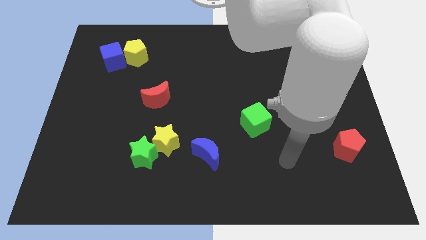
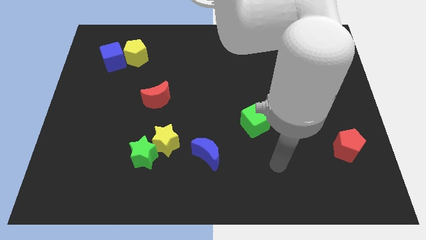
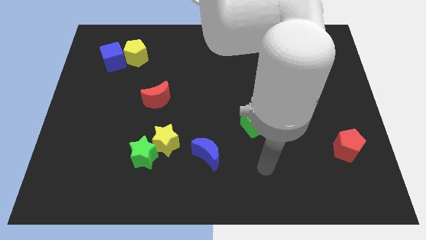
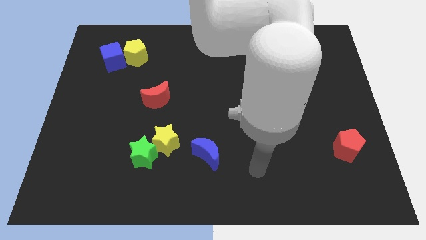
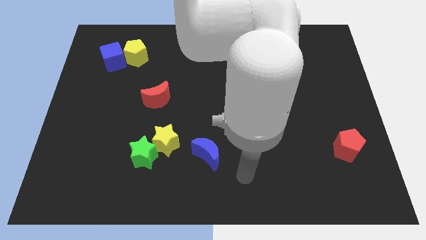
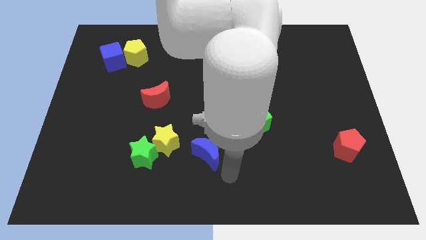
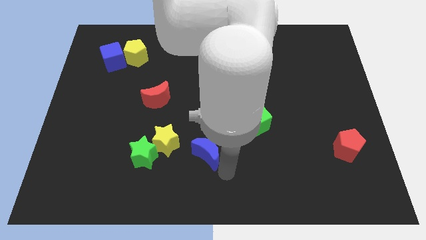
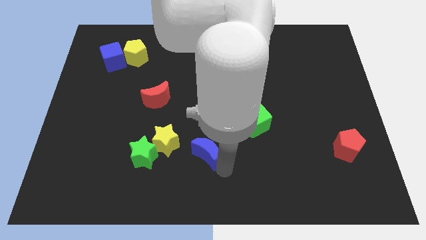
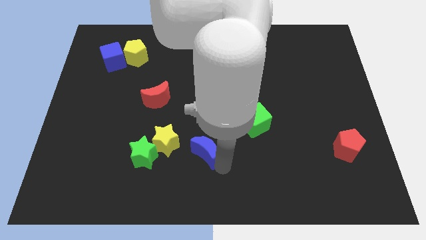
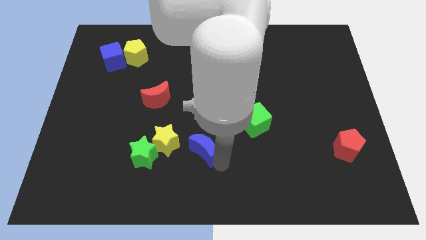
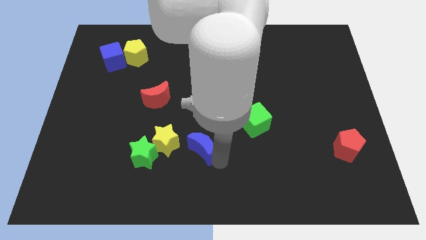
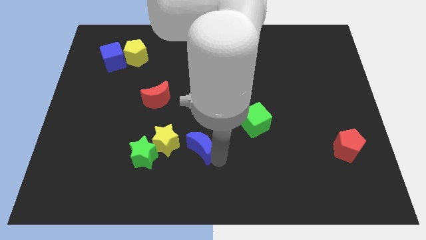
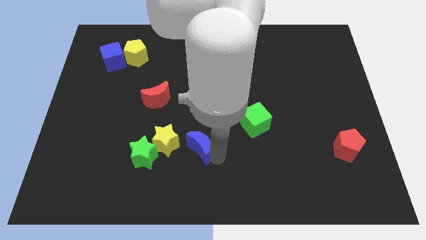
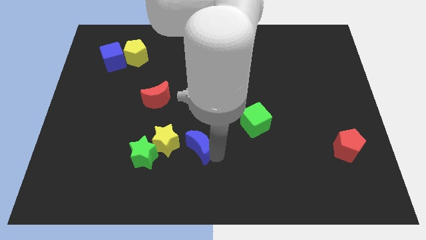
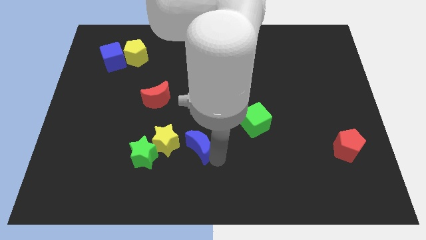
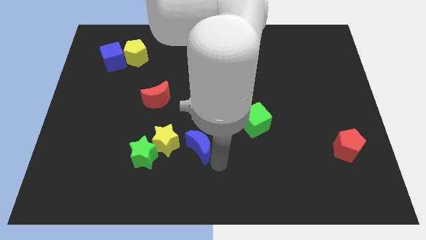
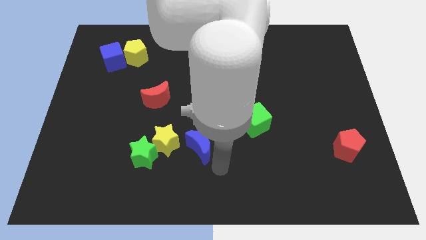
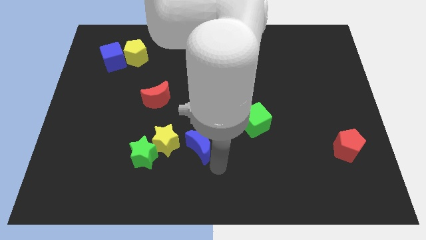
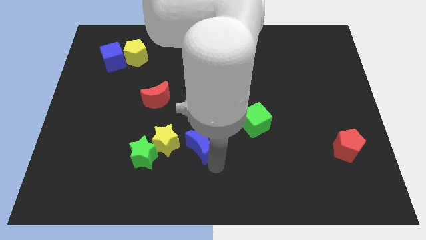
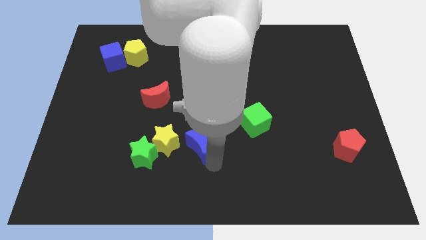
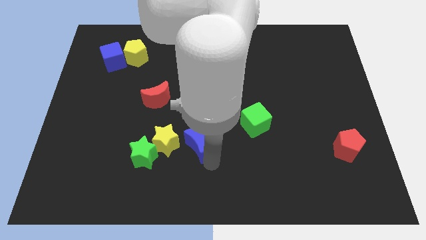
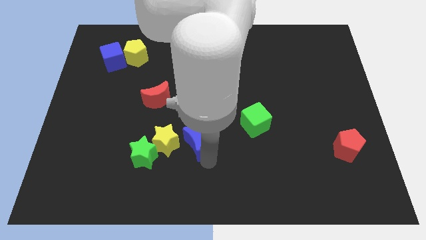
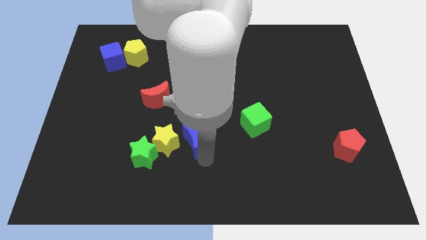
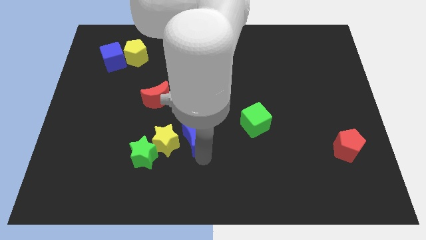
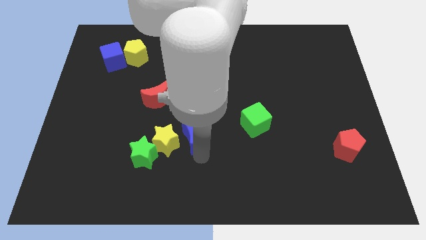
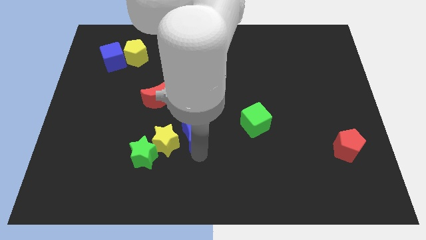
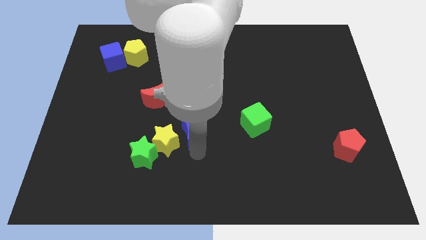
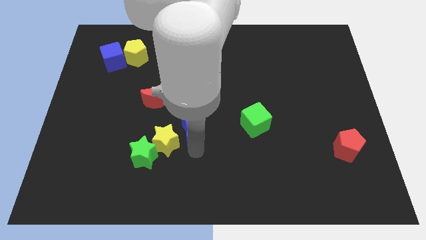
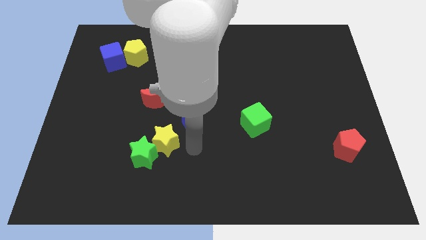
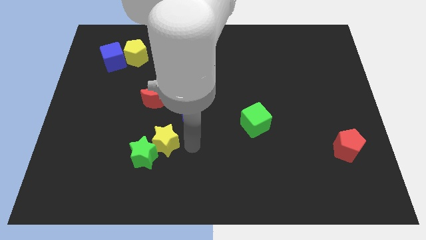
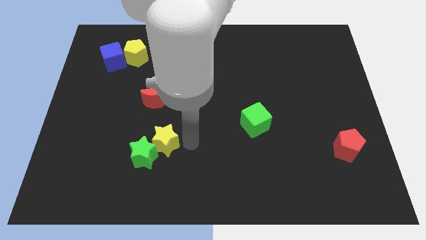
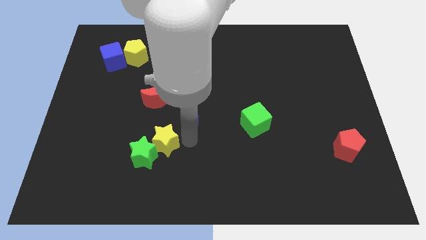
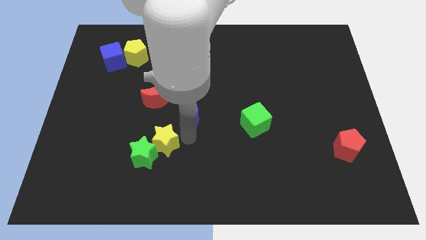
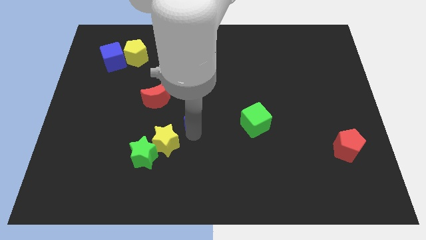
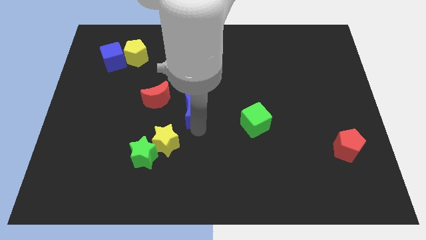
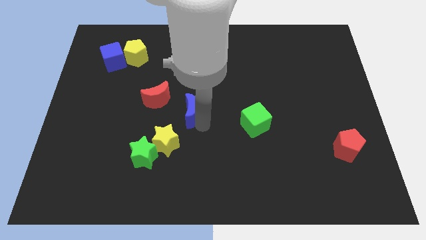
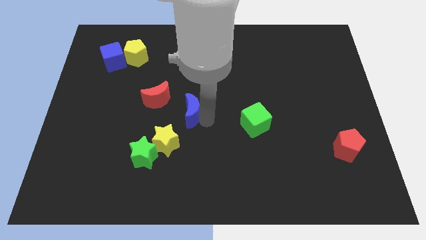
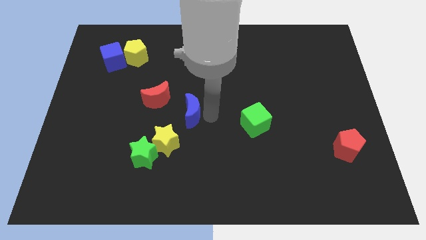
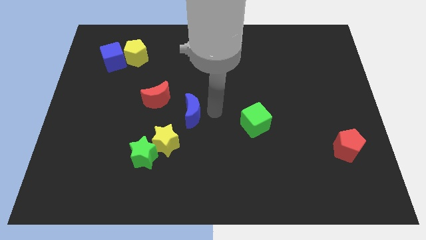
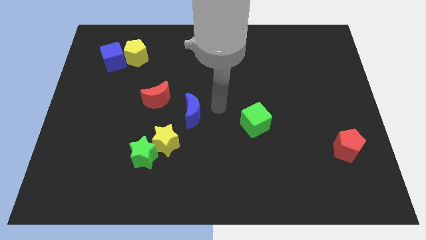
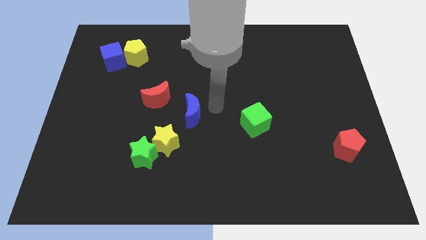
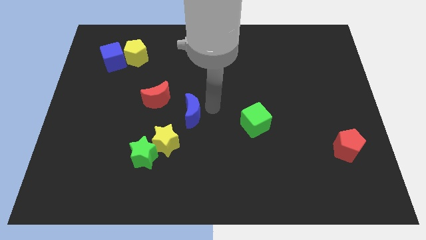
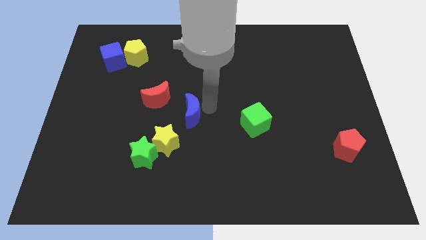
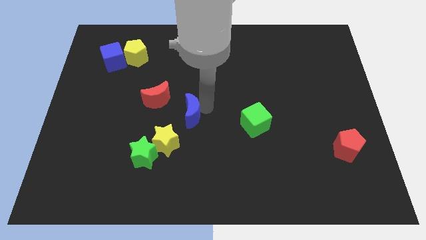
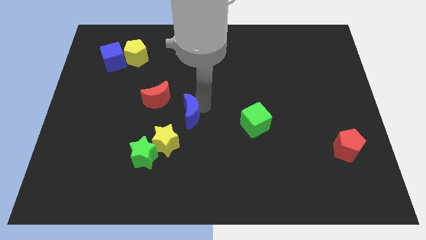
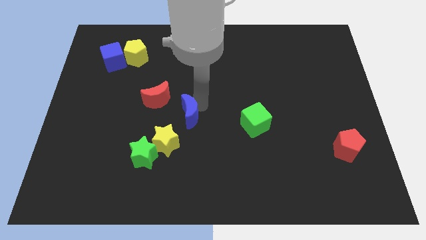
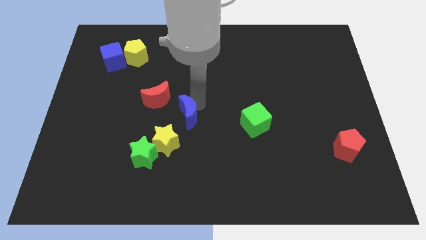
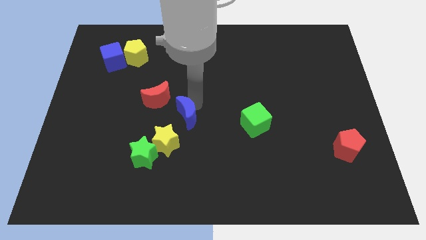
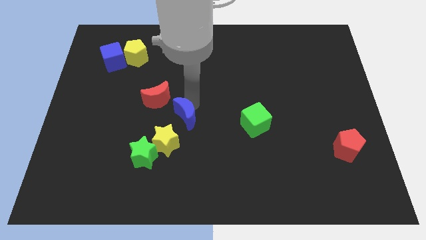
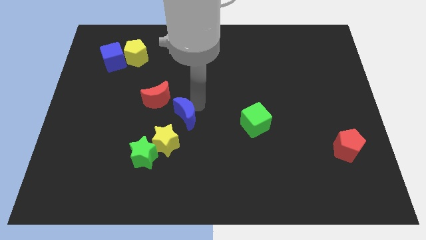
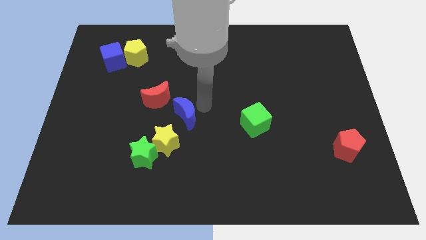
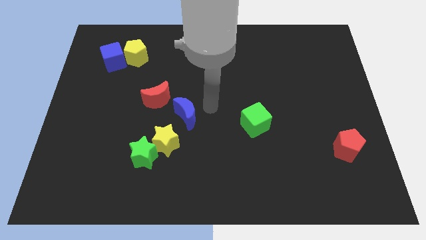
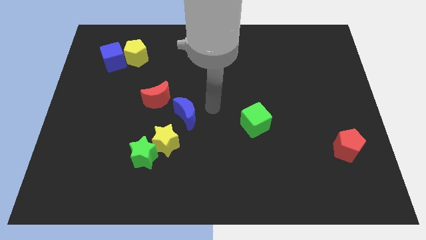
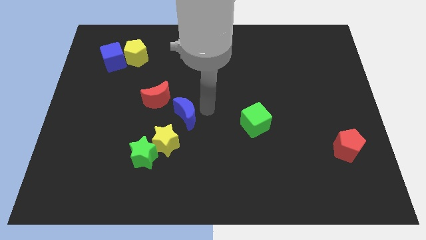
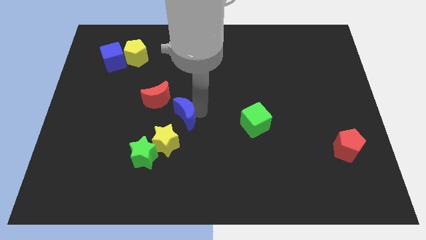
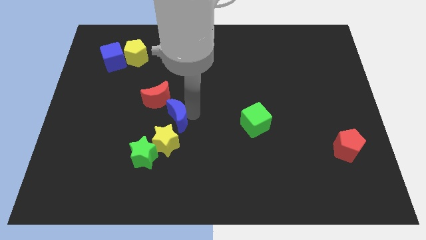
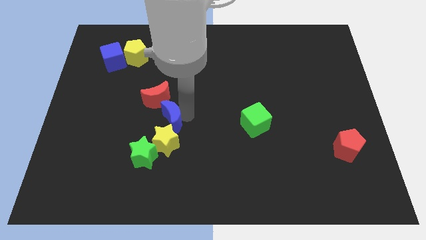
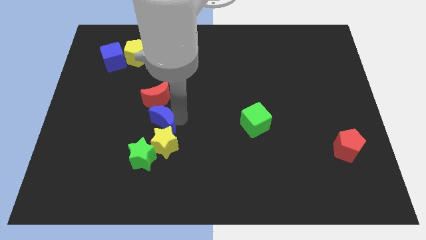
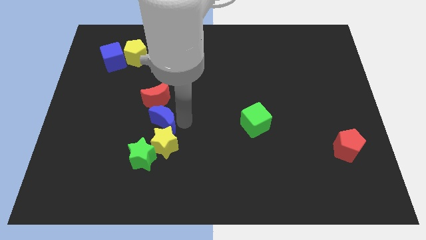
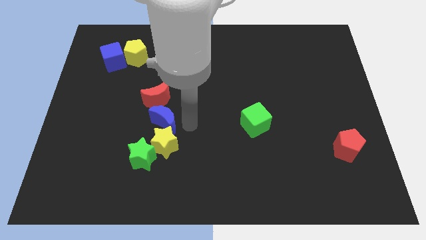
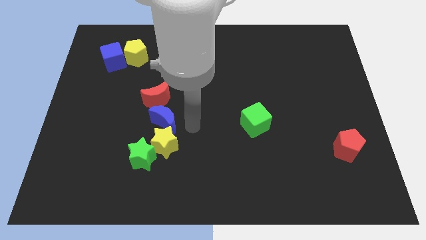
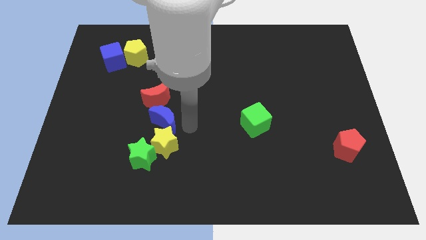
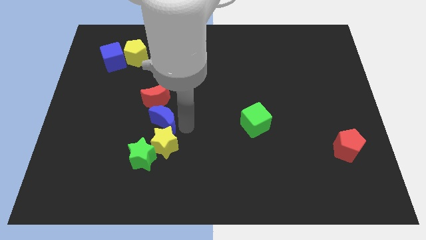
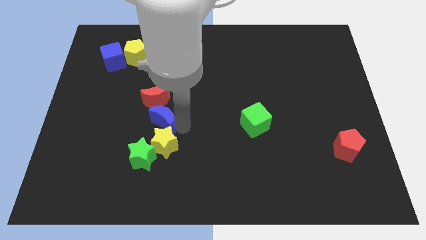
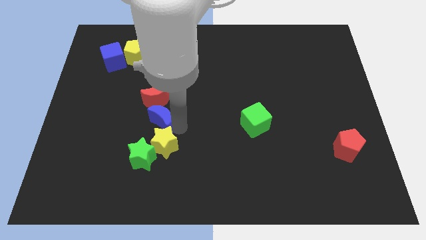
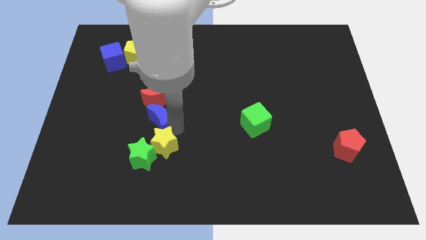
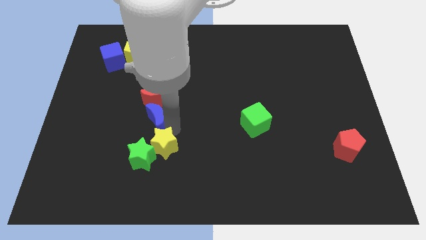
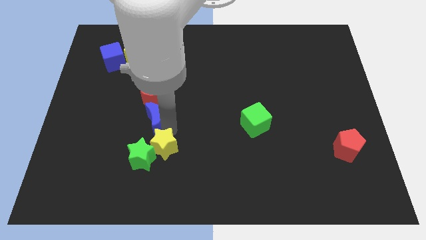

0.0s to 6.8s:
put the blue moon to the bottom left of the red moon

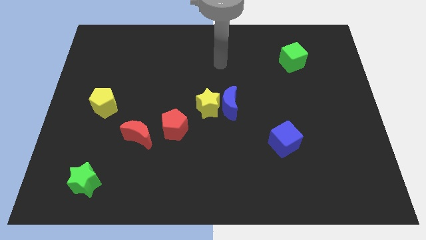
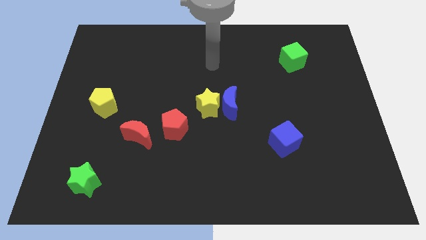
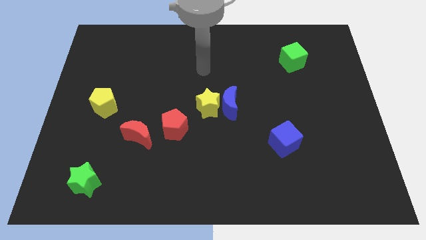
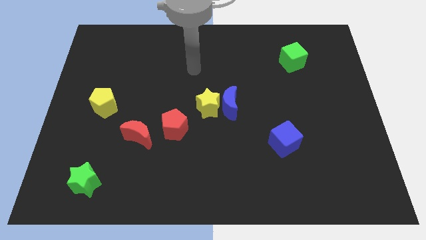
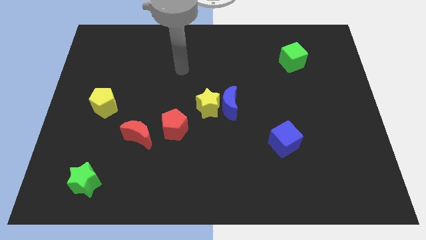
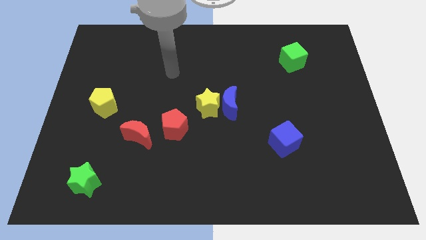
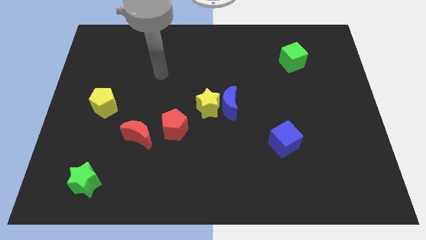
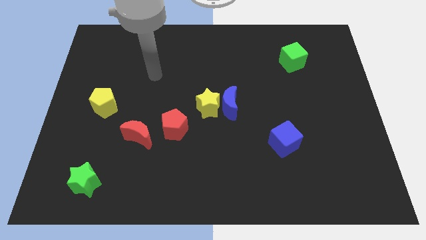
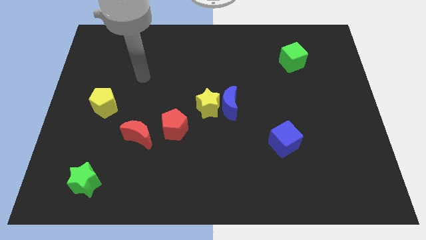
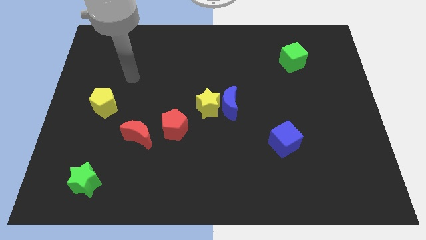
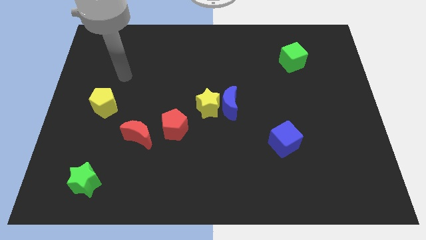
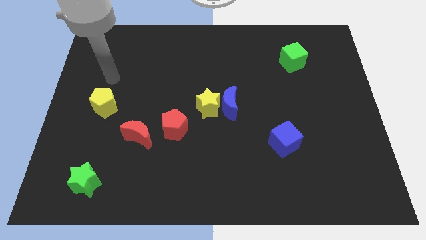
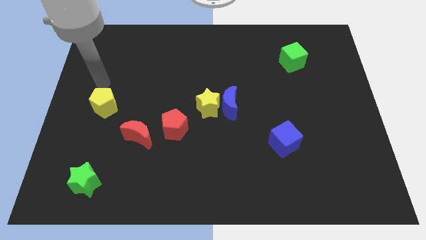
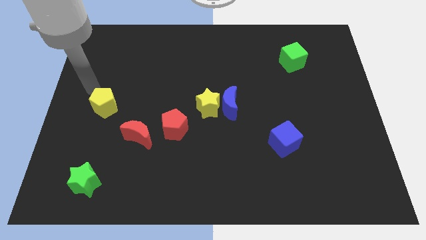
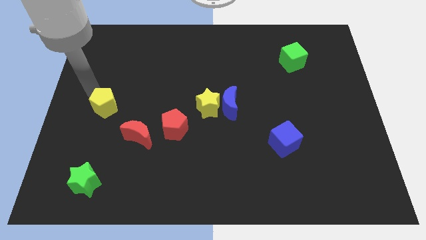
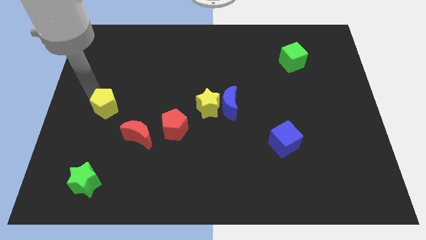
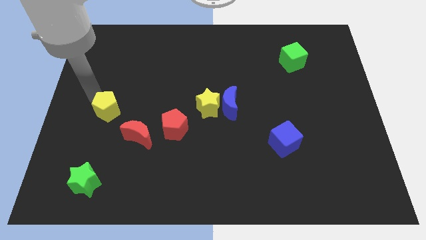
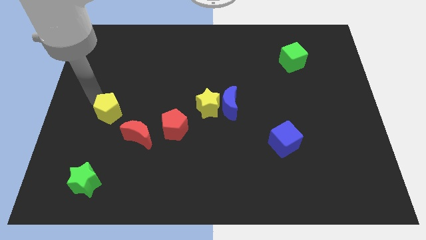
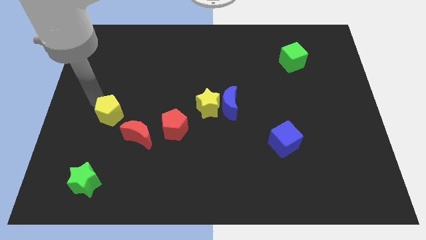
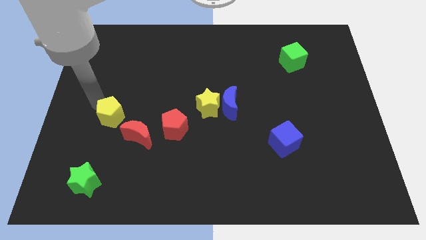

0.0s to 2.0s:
put the yellow pentagon just left of the red pentagon
